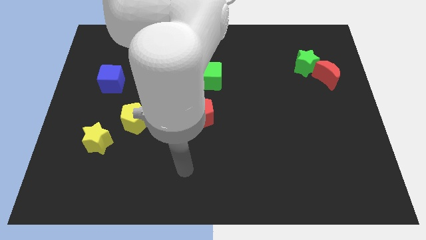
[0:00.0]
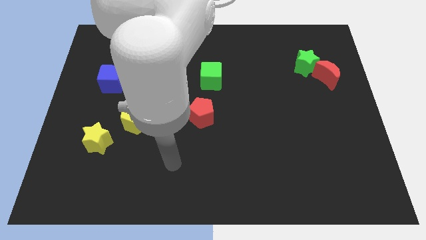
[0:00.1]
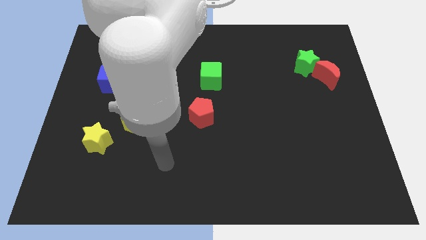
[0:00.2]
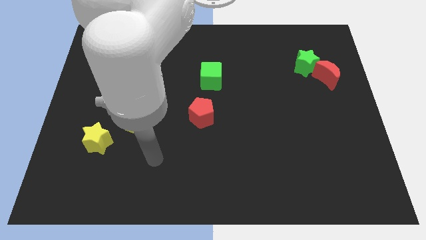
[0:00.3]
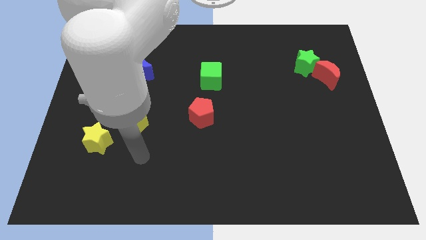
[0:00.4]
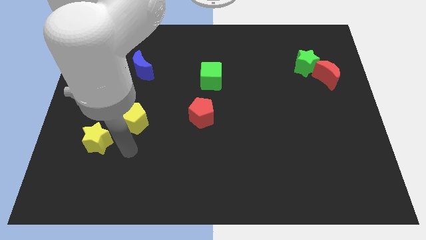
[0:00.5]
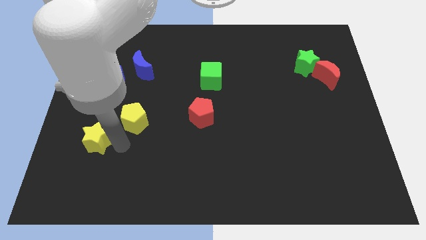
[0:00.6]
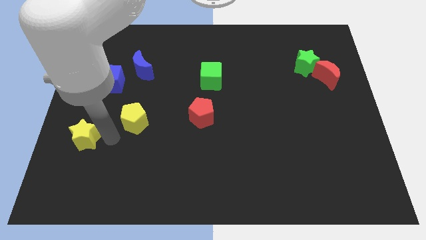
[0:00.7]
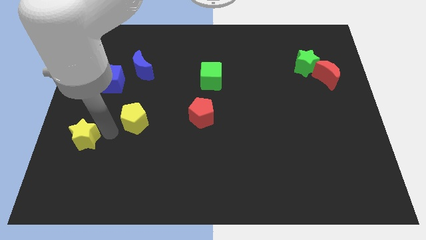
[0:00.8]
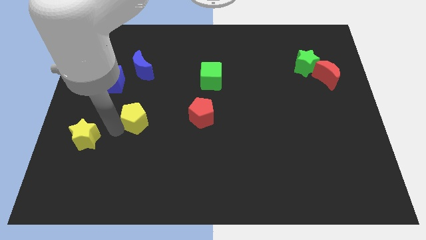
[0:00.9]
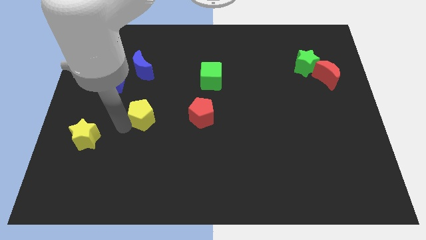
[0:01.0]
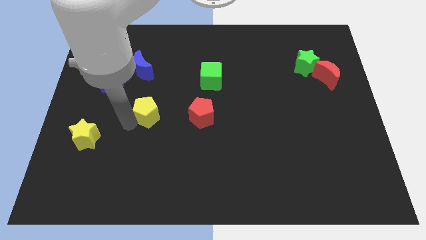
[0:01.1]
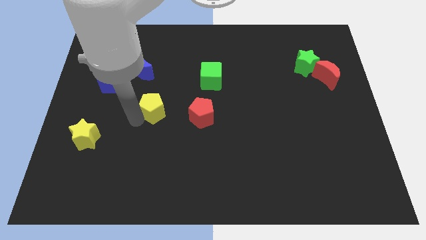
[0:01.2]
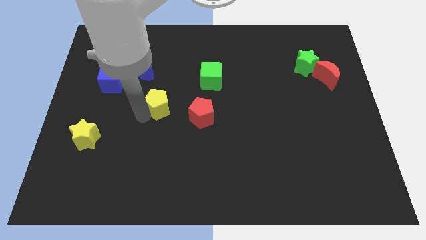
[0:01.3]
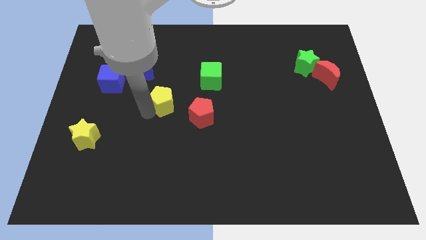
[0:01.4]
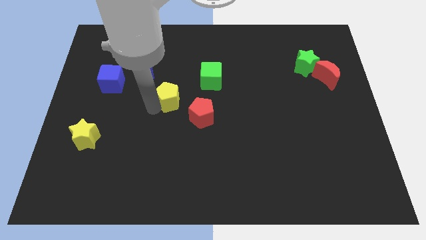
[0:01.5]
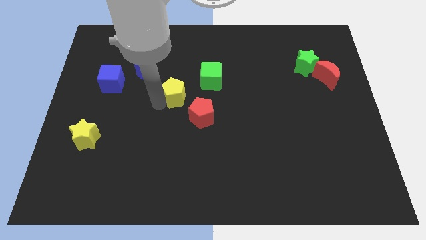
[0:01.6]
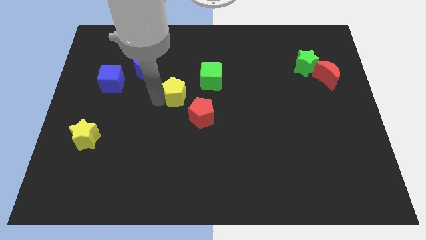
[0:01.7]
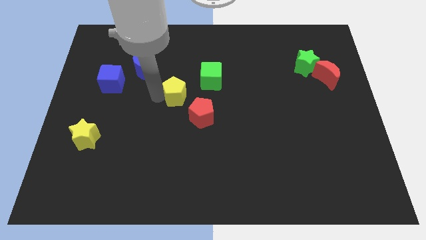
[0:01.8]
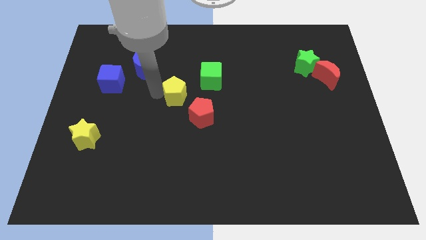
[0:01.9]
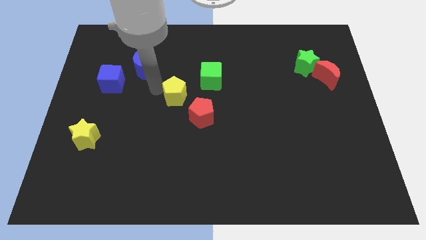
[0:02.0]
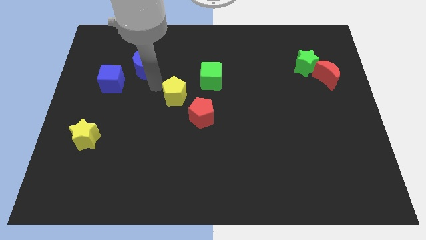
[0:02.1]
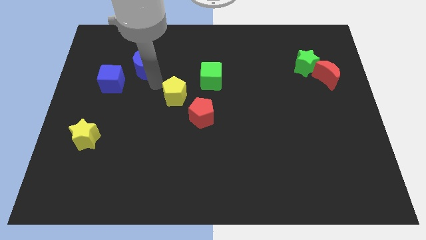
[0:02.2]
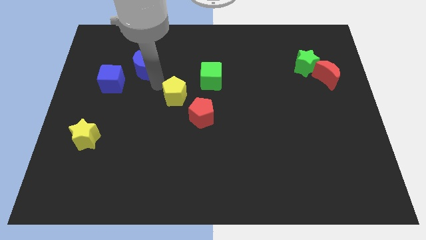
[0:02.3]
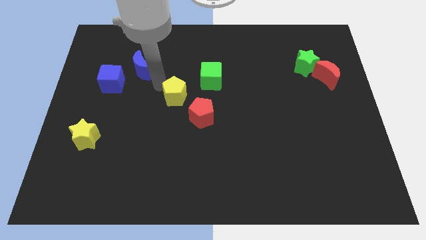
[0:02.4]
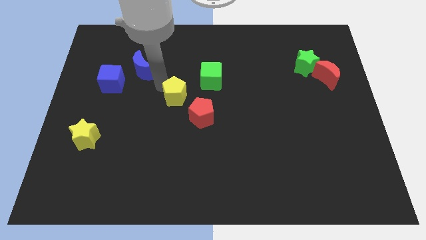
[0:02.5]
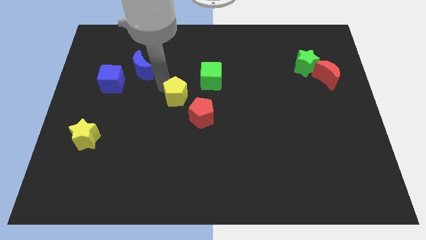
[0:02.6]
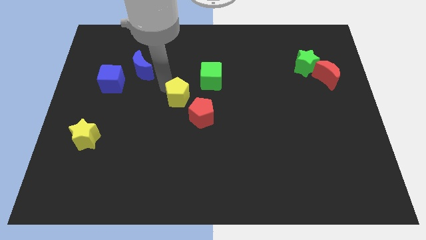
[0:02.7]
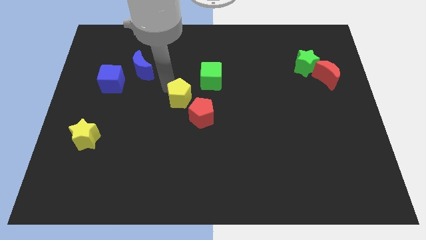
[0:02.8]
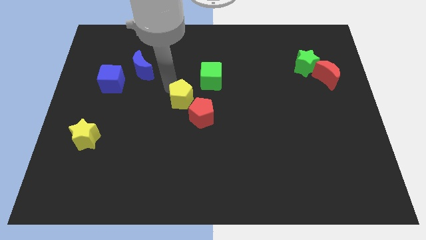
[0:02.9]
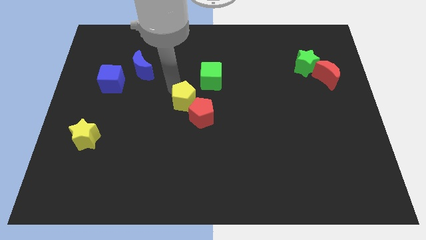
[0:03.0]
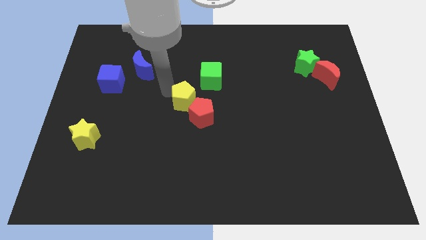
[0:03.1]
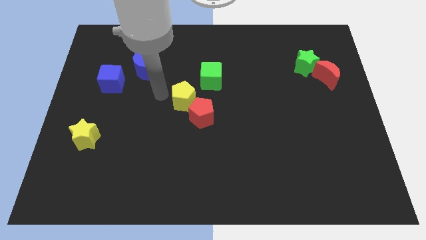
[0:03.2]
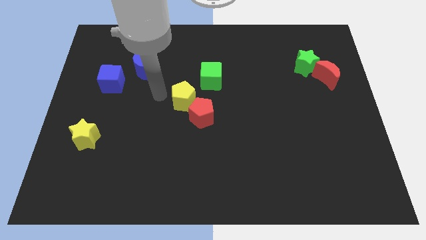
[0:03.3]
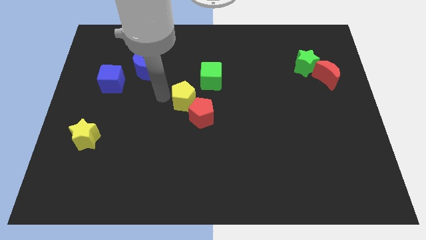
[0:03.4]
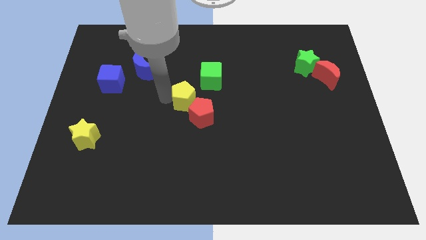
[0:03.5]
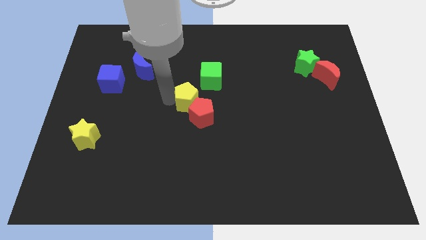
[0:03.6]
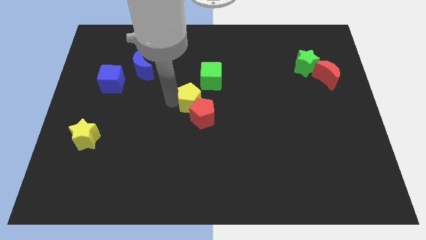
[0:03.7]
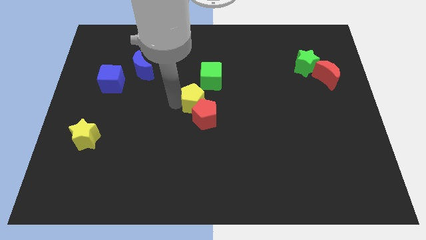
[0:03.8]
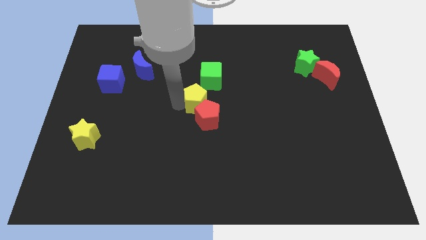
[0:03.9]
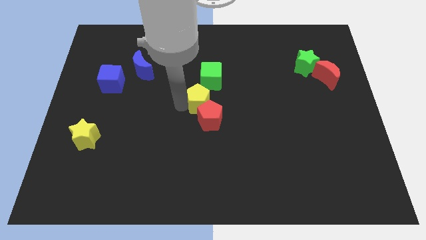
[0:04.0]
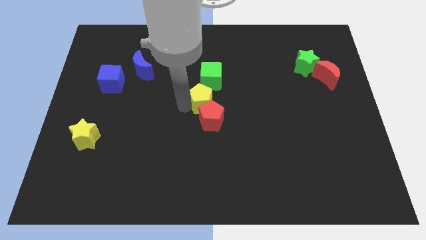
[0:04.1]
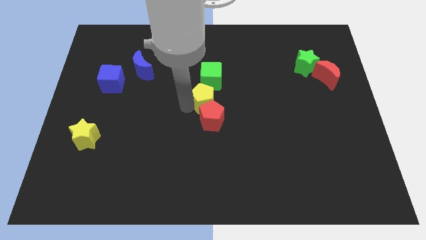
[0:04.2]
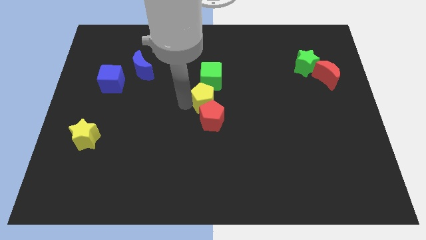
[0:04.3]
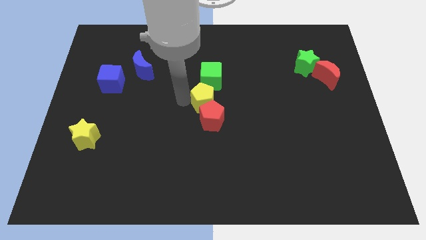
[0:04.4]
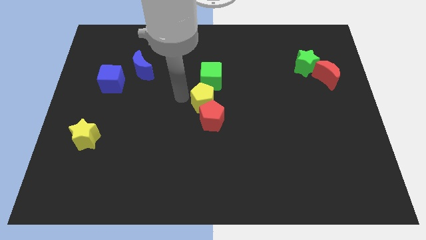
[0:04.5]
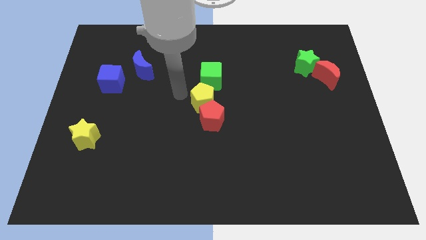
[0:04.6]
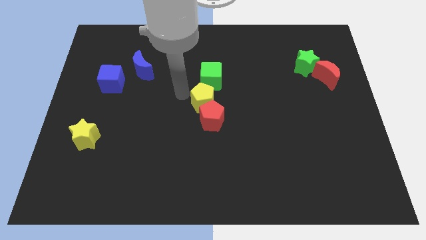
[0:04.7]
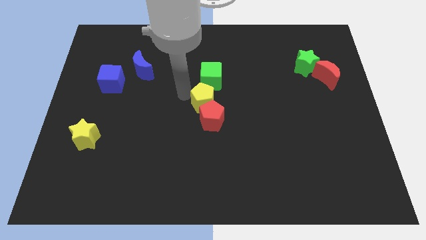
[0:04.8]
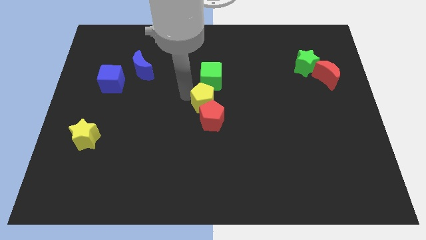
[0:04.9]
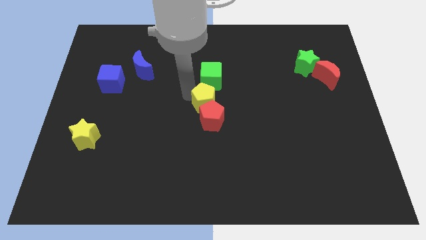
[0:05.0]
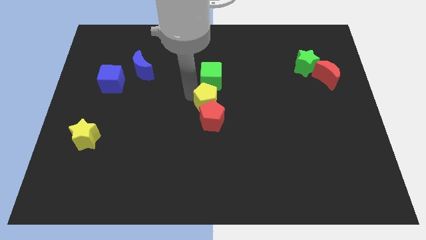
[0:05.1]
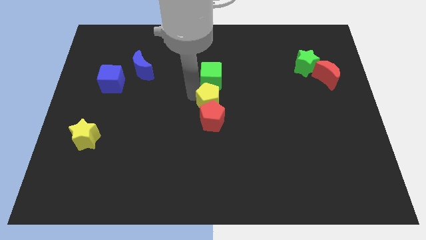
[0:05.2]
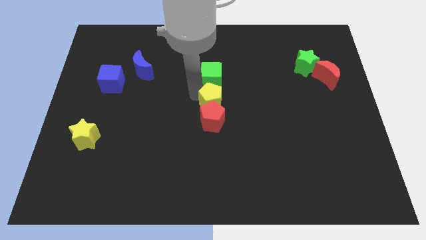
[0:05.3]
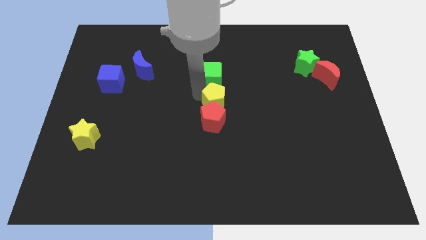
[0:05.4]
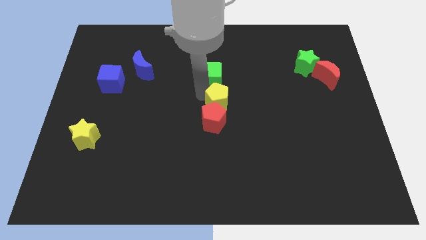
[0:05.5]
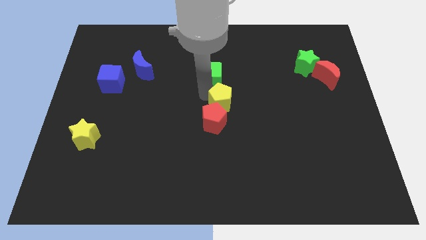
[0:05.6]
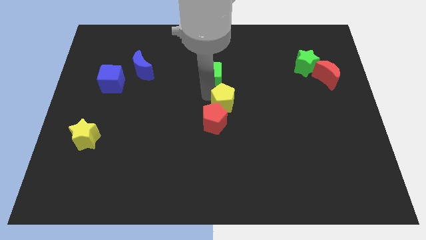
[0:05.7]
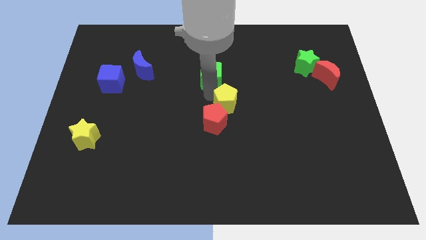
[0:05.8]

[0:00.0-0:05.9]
push the yellow pentagon right

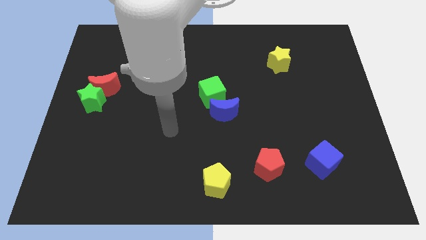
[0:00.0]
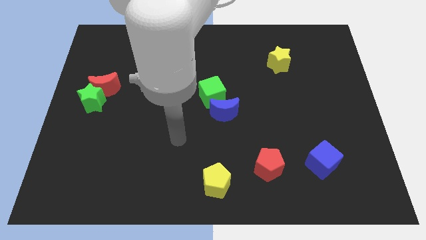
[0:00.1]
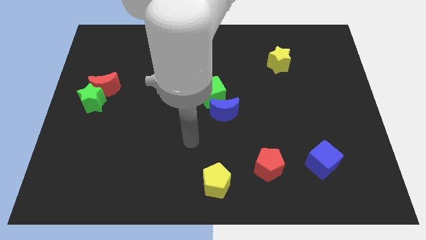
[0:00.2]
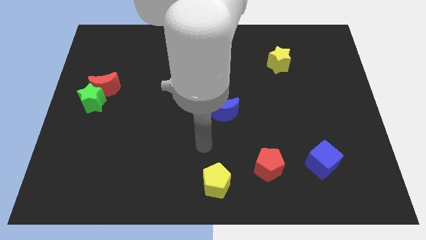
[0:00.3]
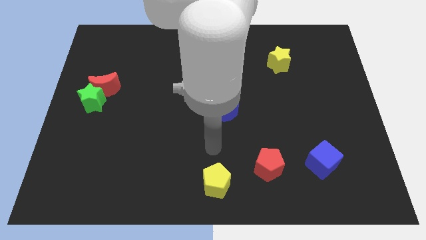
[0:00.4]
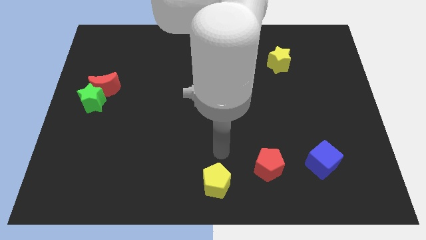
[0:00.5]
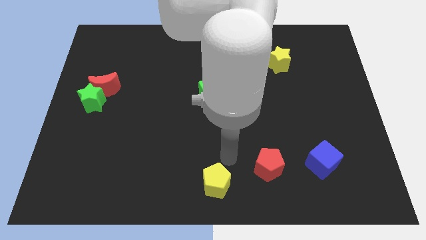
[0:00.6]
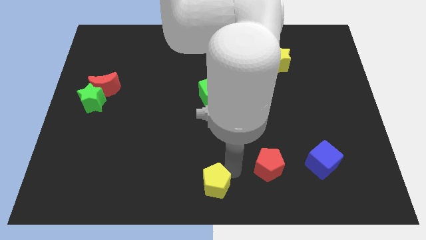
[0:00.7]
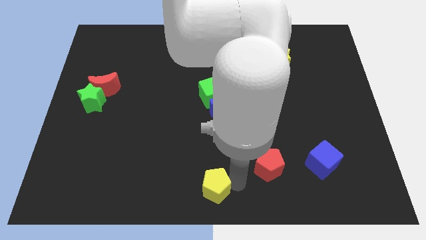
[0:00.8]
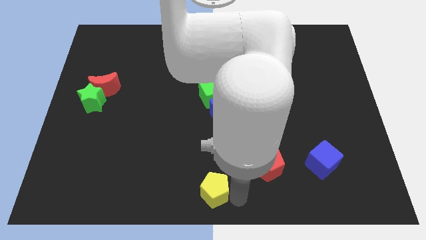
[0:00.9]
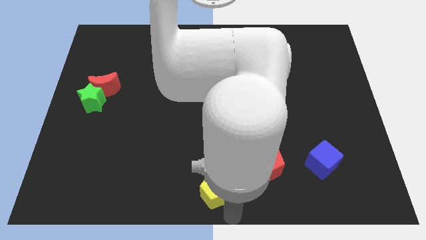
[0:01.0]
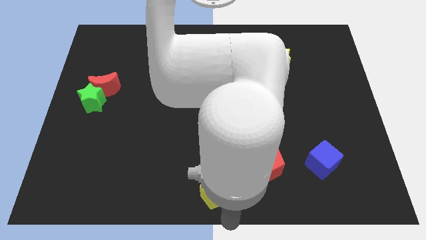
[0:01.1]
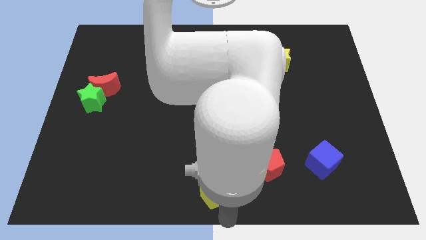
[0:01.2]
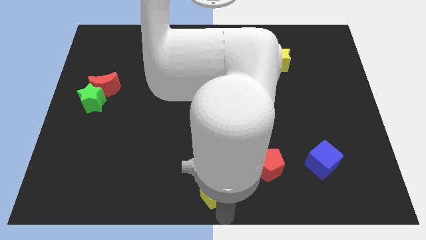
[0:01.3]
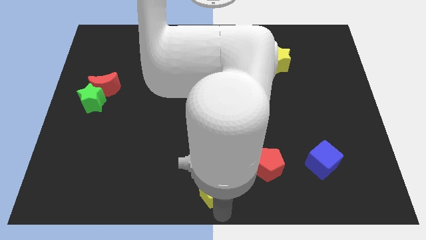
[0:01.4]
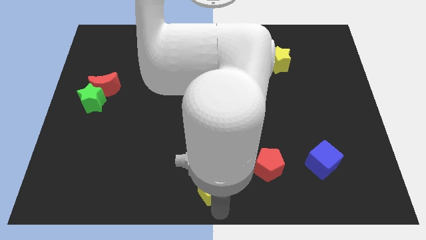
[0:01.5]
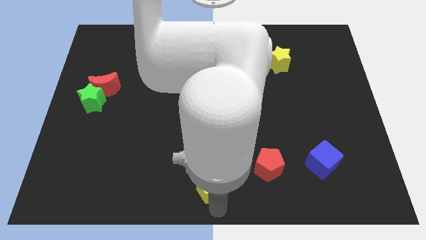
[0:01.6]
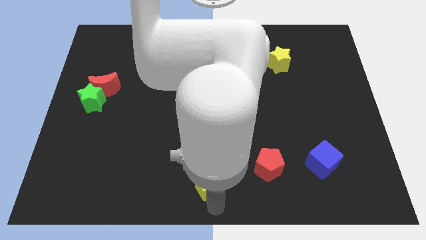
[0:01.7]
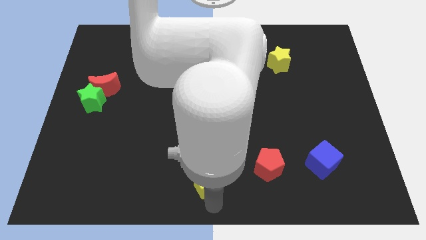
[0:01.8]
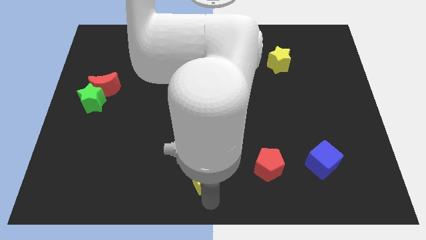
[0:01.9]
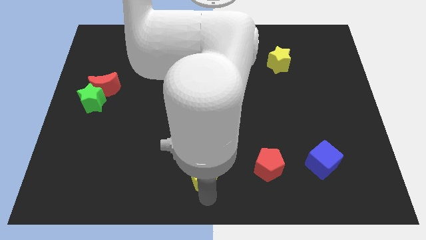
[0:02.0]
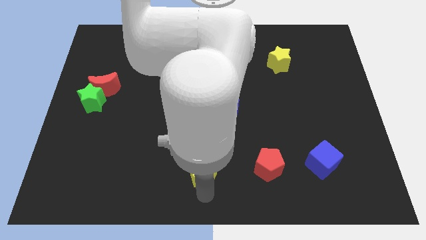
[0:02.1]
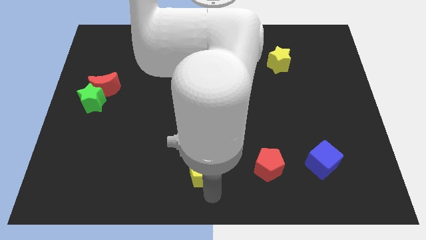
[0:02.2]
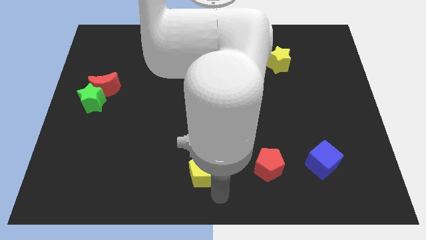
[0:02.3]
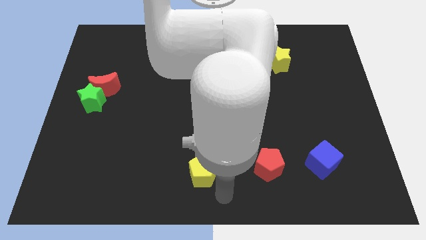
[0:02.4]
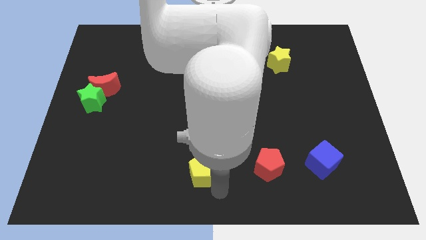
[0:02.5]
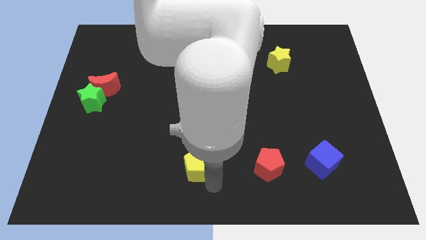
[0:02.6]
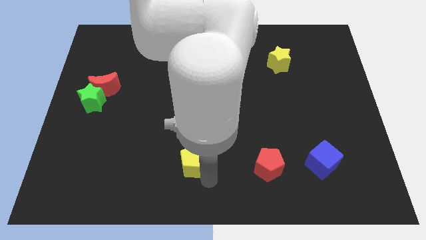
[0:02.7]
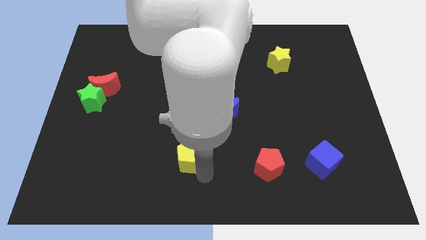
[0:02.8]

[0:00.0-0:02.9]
push the yellow pentagon diagonally upwards and to the left somewhat
